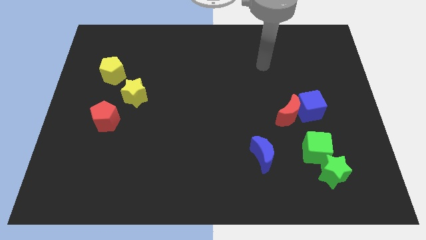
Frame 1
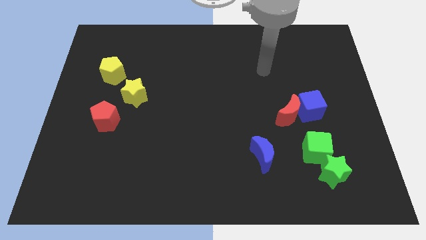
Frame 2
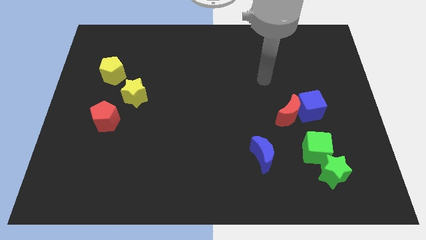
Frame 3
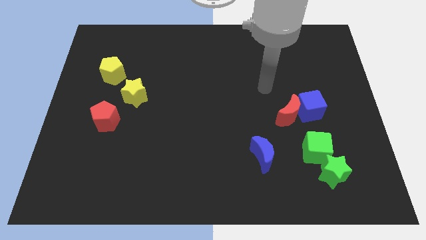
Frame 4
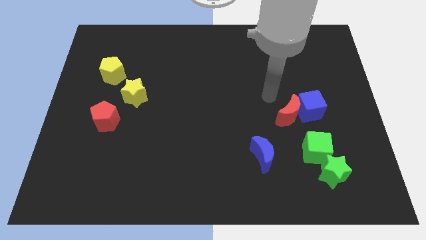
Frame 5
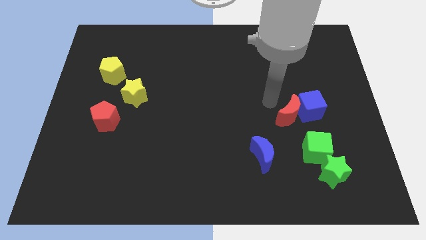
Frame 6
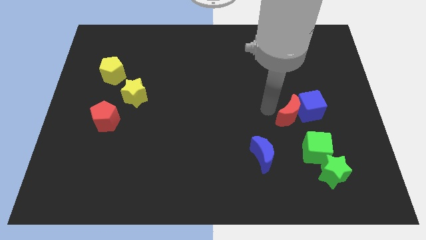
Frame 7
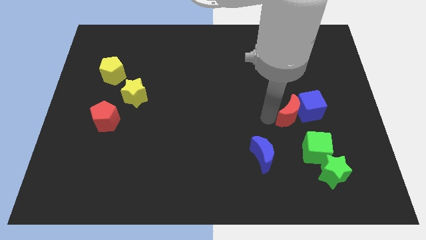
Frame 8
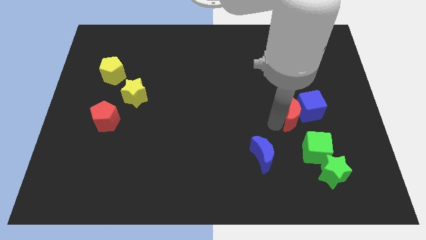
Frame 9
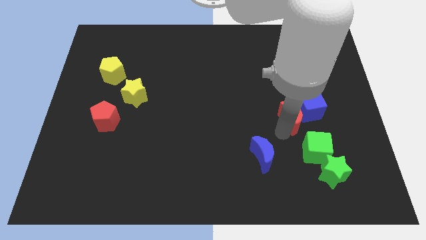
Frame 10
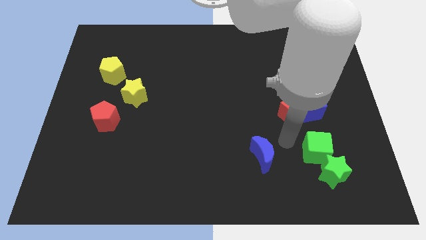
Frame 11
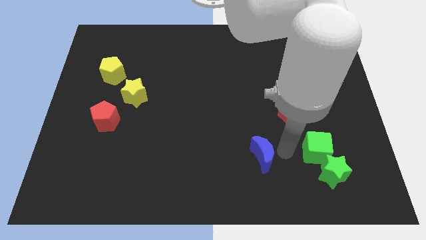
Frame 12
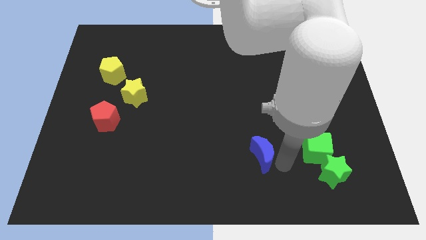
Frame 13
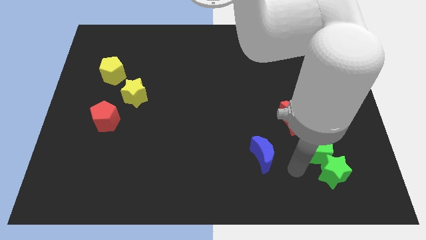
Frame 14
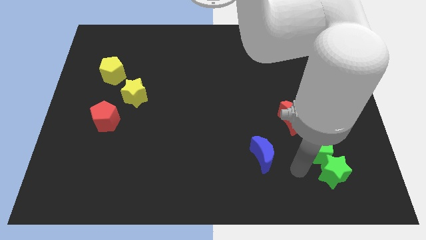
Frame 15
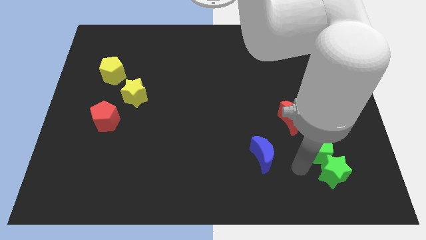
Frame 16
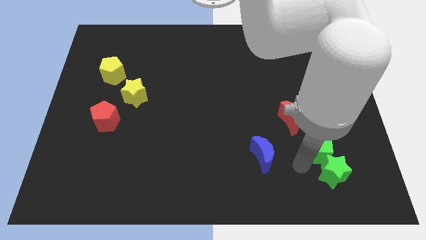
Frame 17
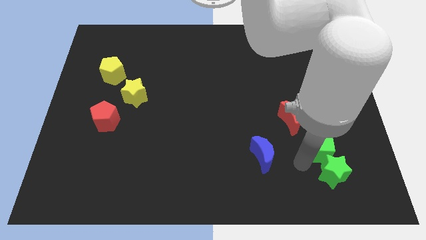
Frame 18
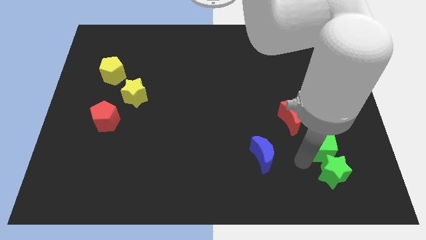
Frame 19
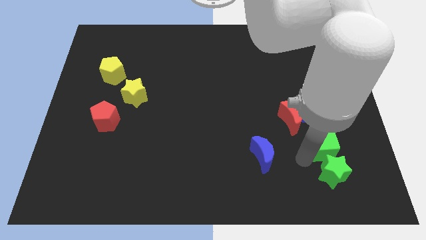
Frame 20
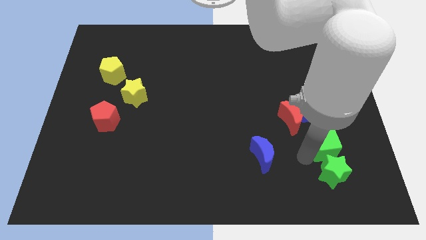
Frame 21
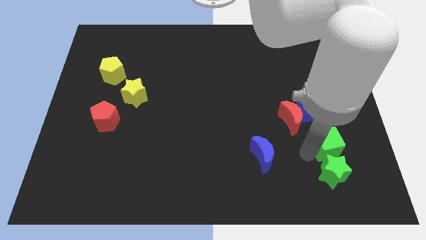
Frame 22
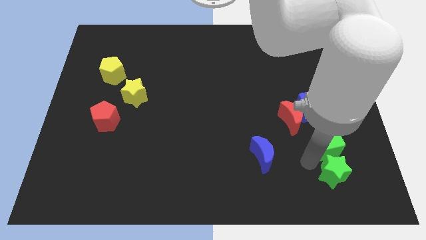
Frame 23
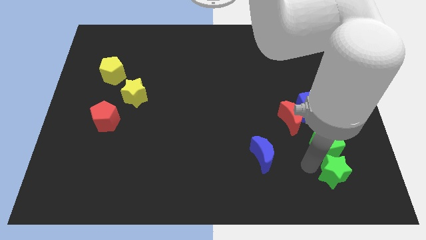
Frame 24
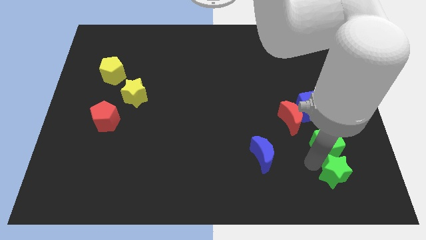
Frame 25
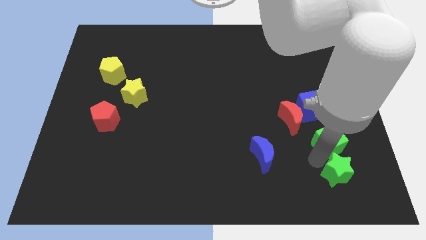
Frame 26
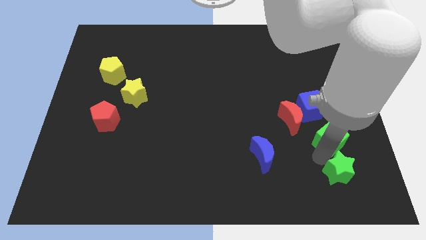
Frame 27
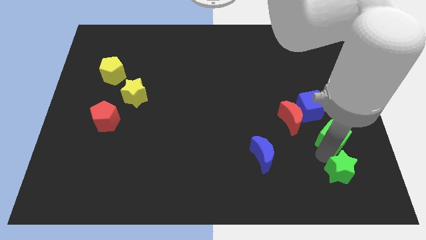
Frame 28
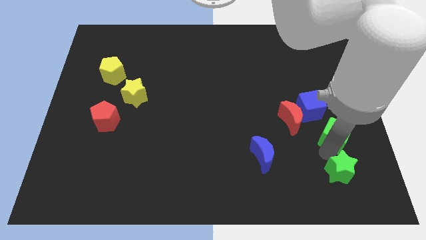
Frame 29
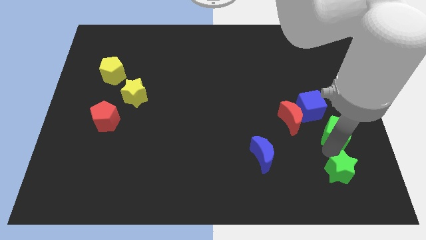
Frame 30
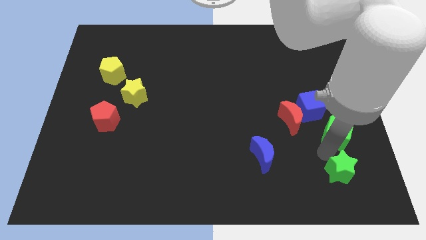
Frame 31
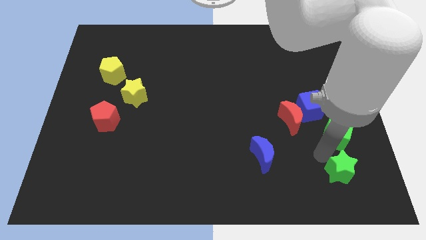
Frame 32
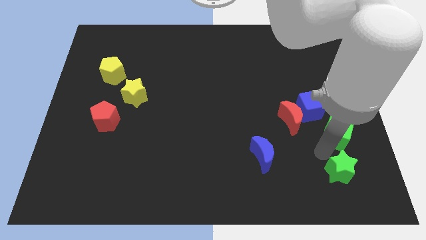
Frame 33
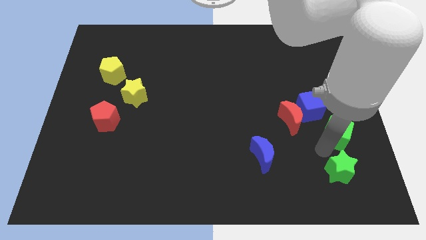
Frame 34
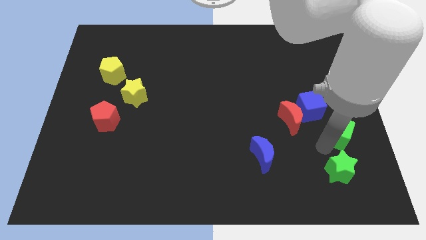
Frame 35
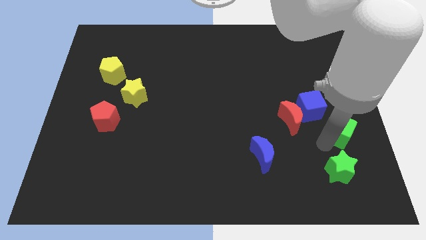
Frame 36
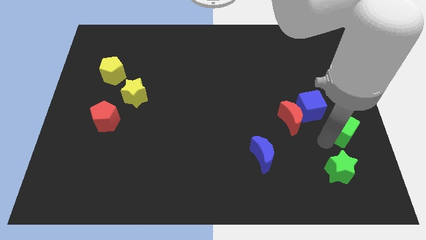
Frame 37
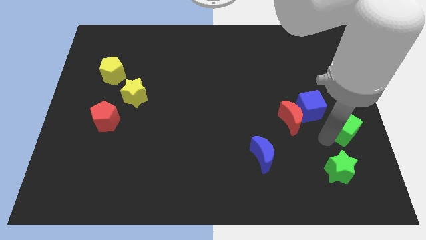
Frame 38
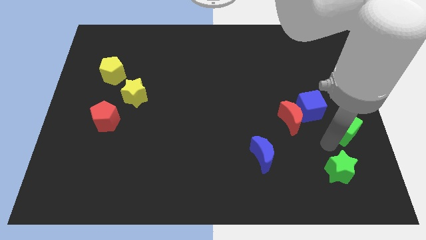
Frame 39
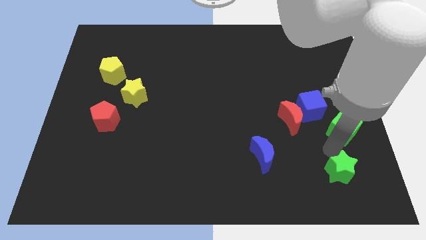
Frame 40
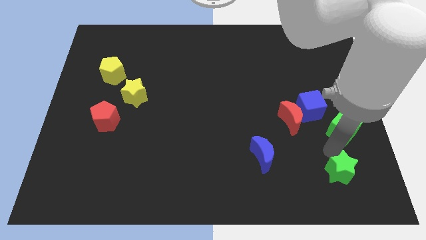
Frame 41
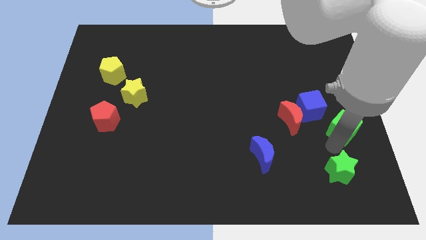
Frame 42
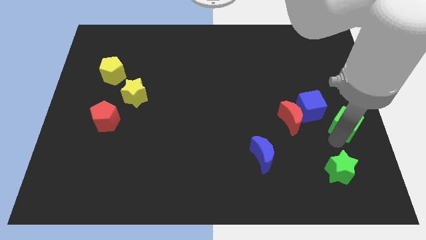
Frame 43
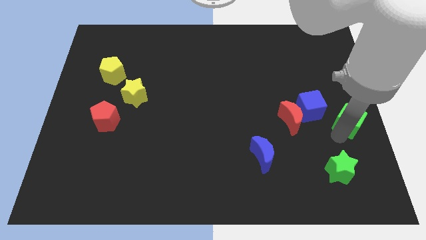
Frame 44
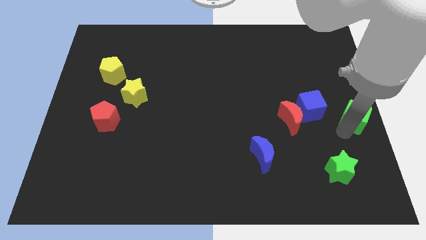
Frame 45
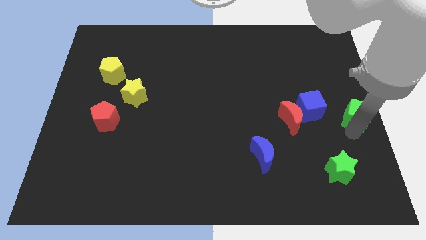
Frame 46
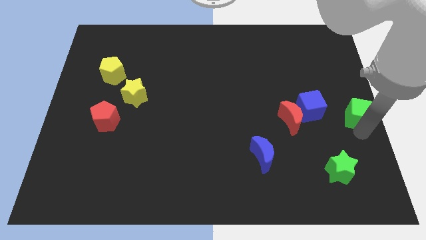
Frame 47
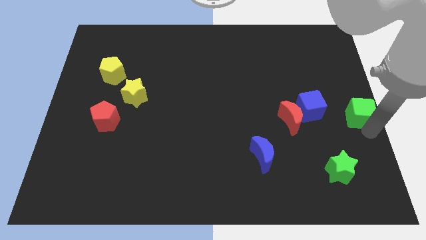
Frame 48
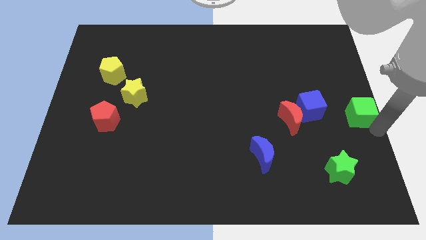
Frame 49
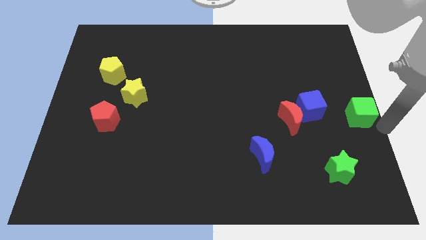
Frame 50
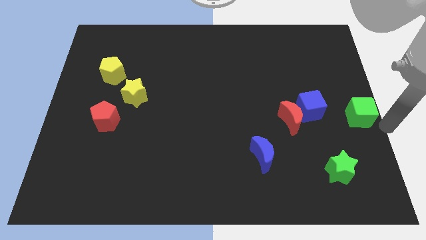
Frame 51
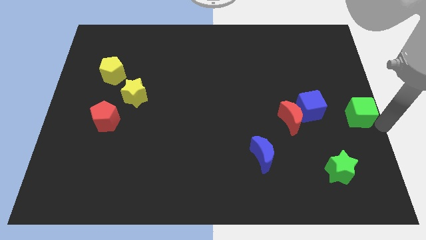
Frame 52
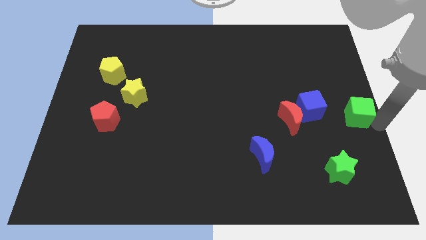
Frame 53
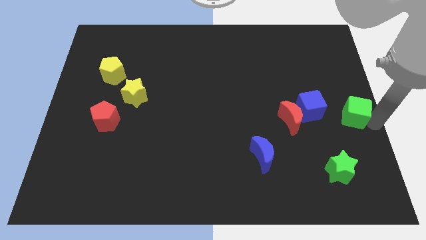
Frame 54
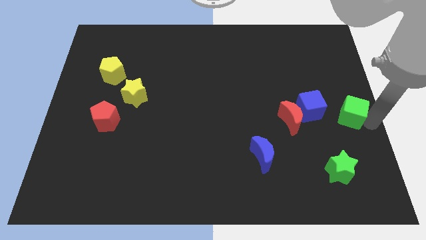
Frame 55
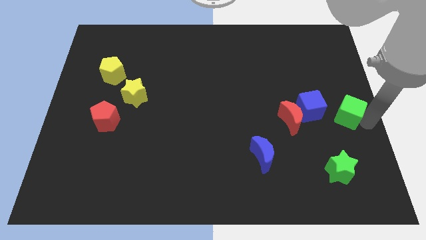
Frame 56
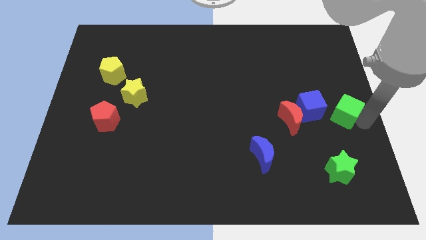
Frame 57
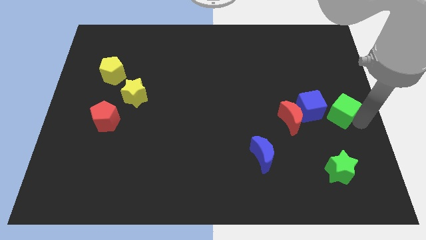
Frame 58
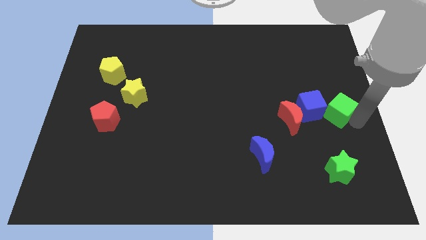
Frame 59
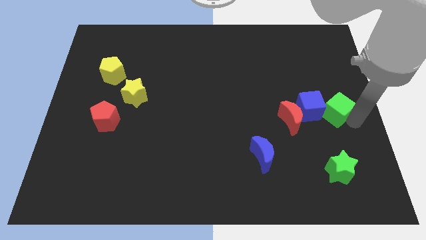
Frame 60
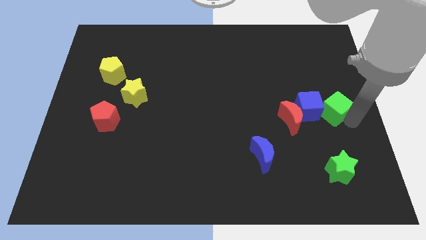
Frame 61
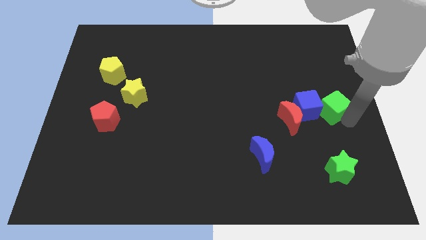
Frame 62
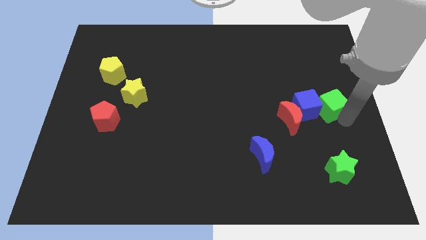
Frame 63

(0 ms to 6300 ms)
put the green cube diagonally up and to the right of the red moon
